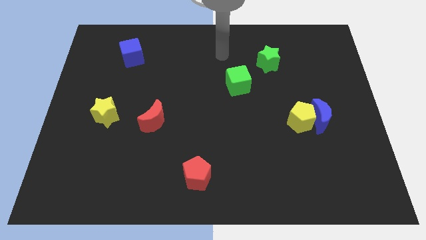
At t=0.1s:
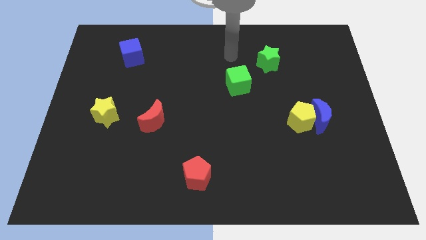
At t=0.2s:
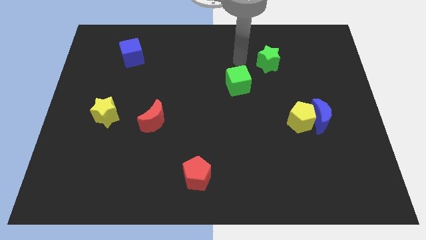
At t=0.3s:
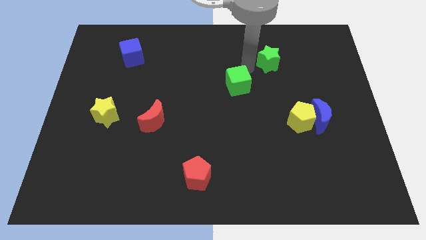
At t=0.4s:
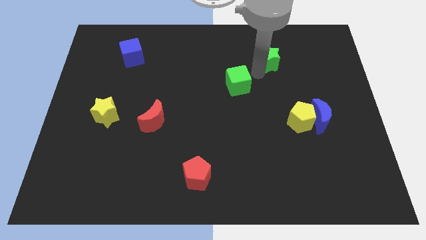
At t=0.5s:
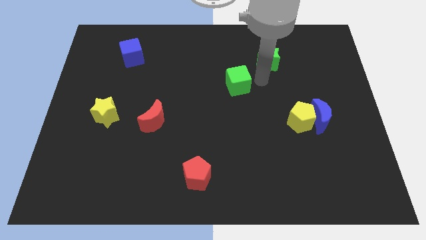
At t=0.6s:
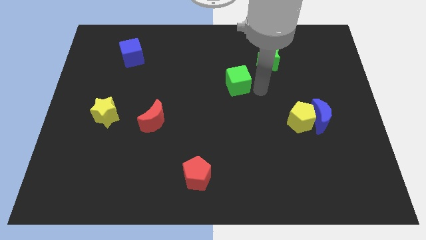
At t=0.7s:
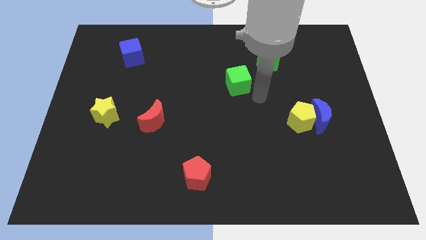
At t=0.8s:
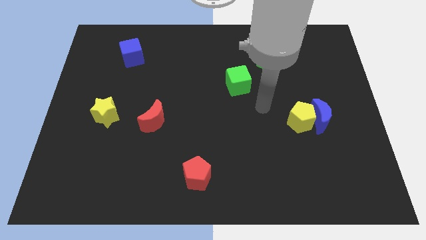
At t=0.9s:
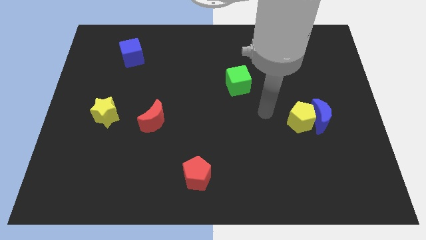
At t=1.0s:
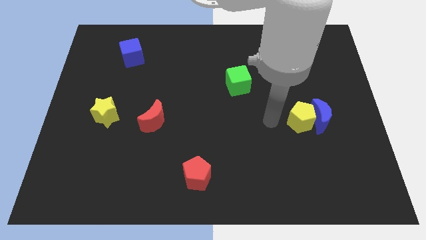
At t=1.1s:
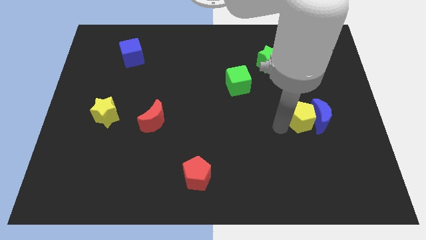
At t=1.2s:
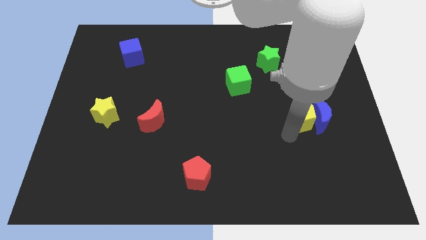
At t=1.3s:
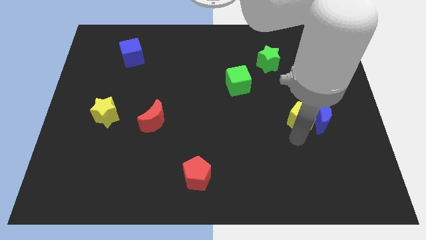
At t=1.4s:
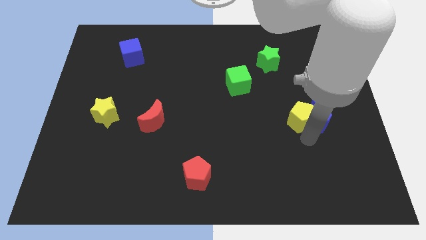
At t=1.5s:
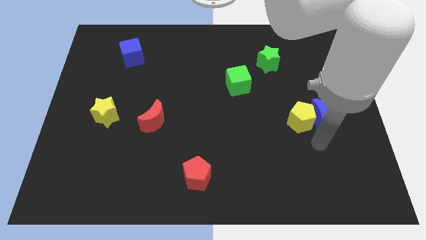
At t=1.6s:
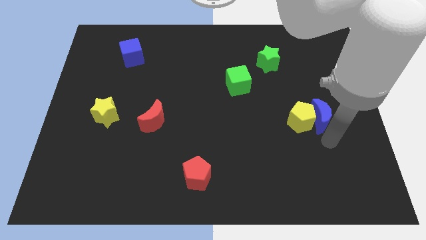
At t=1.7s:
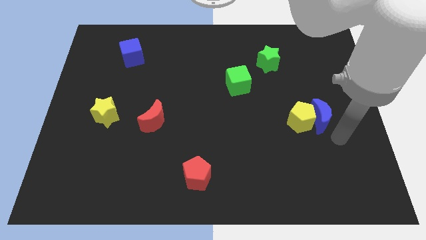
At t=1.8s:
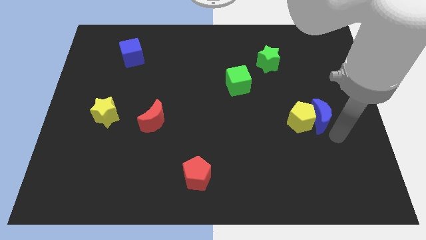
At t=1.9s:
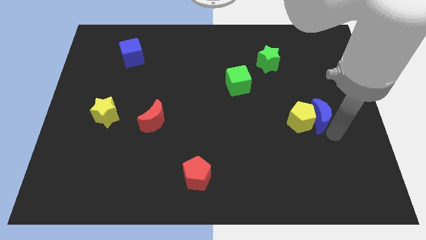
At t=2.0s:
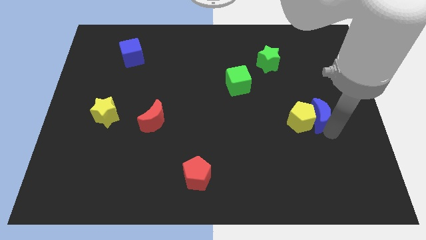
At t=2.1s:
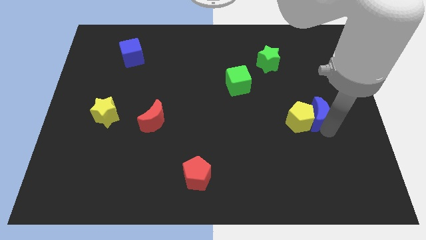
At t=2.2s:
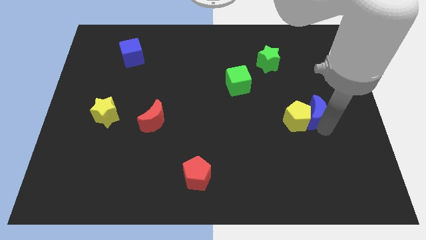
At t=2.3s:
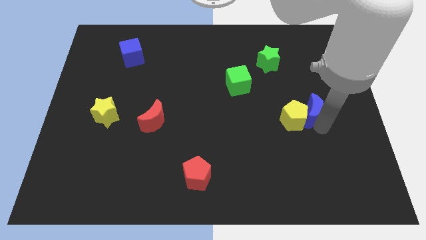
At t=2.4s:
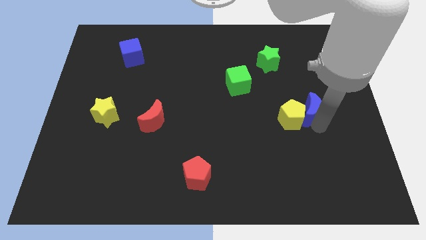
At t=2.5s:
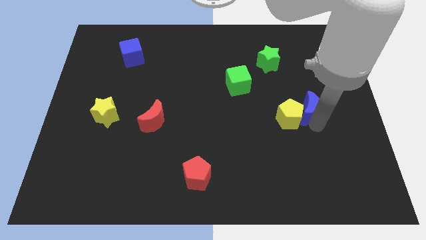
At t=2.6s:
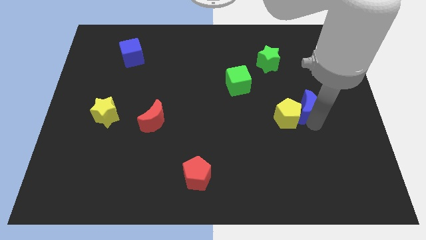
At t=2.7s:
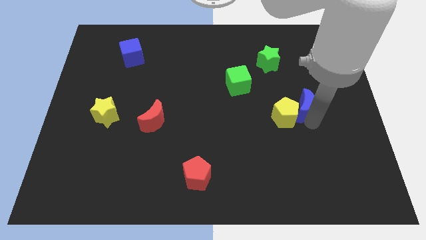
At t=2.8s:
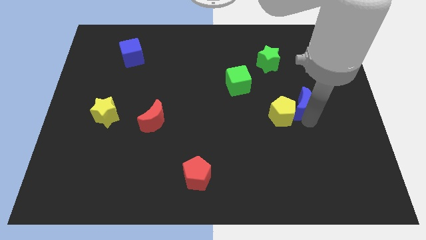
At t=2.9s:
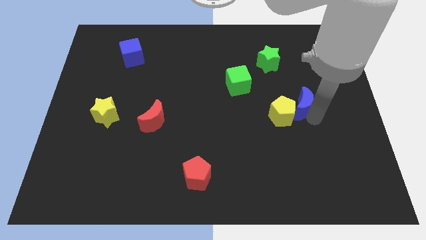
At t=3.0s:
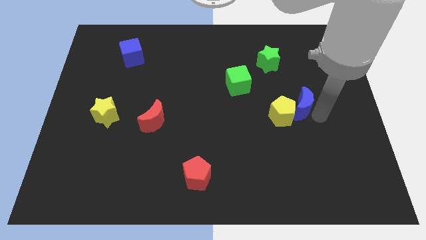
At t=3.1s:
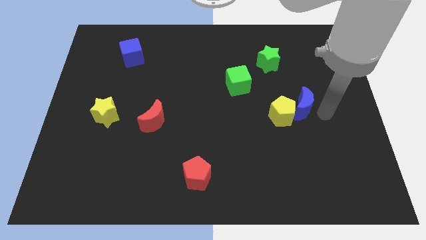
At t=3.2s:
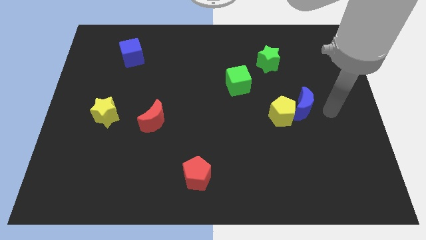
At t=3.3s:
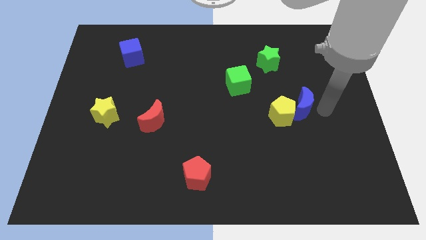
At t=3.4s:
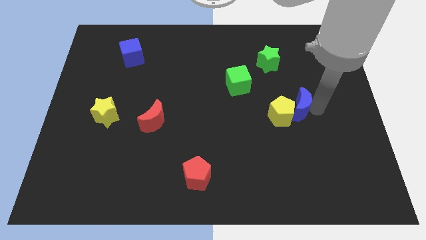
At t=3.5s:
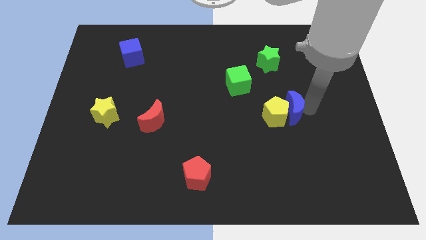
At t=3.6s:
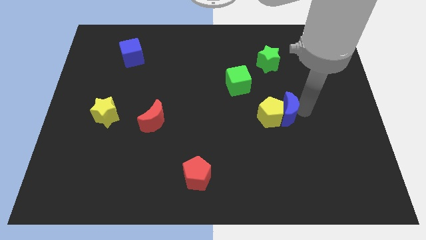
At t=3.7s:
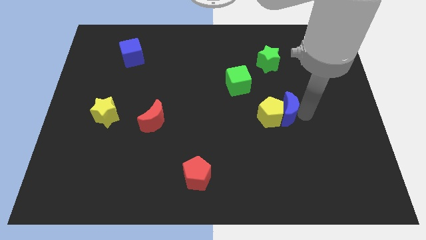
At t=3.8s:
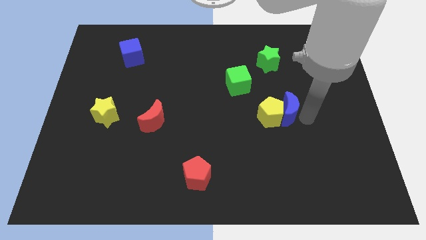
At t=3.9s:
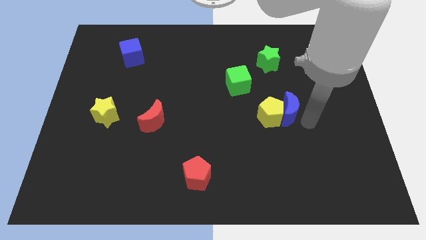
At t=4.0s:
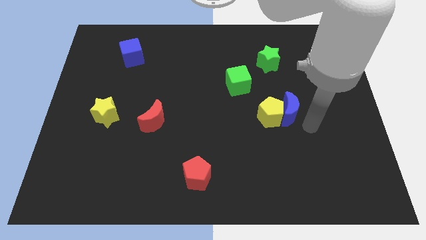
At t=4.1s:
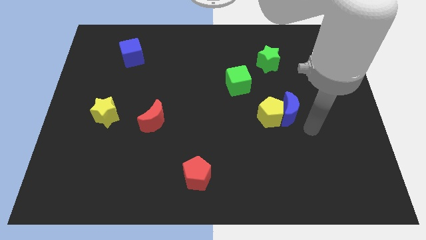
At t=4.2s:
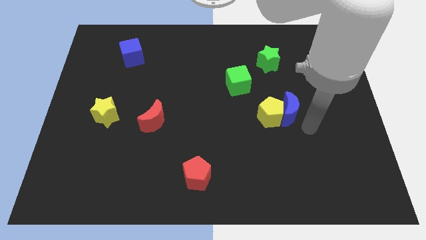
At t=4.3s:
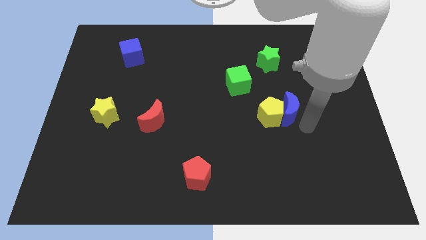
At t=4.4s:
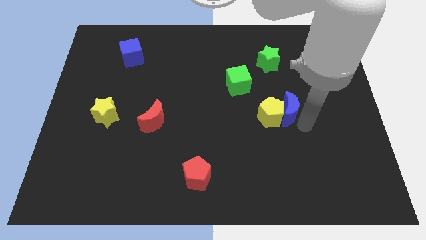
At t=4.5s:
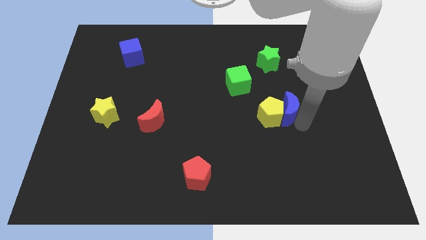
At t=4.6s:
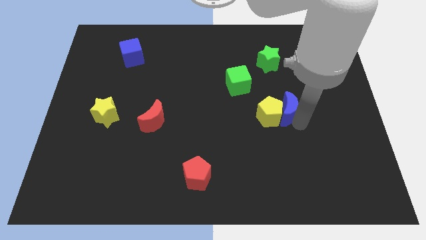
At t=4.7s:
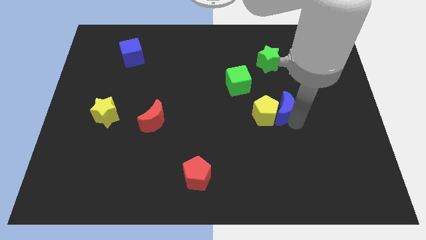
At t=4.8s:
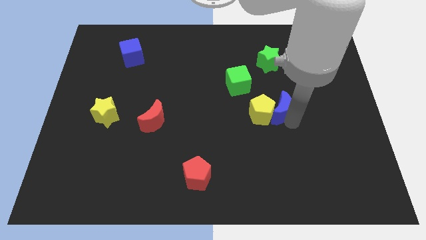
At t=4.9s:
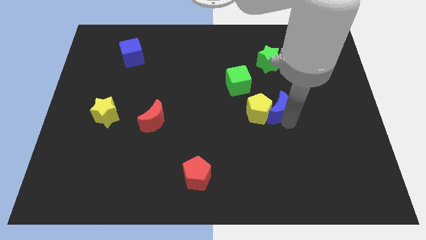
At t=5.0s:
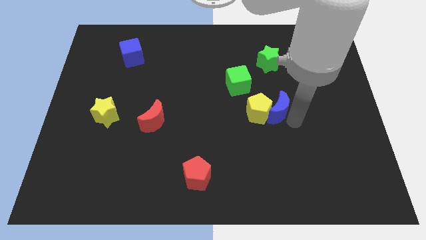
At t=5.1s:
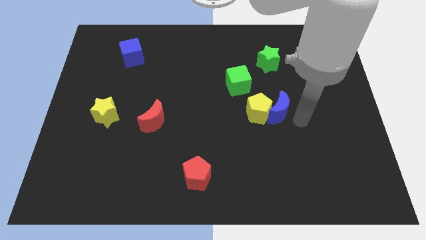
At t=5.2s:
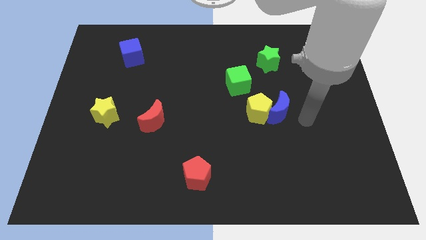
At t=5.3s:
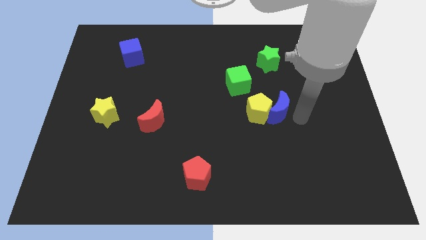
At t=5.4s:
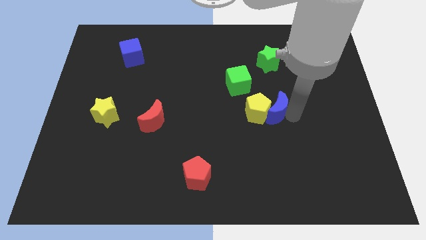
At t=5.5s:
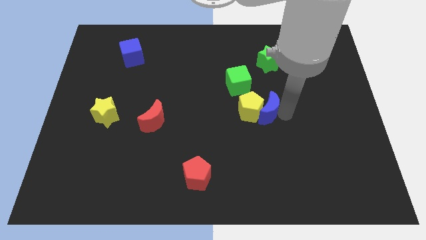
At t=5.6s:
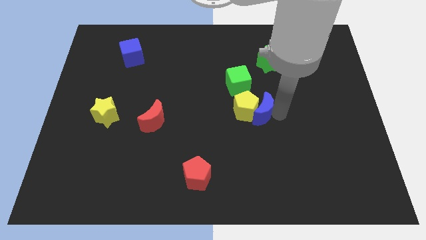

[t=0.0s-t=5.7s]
move the blue moon to the center of the board
